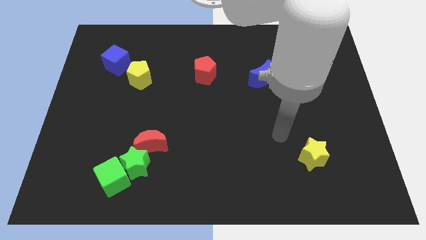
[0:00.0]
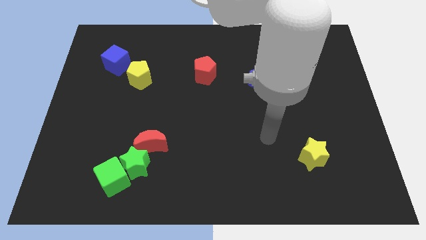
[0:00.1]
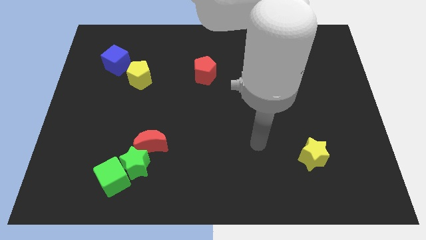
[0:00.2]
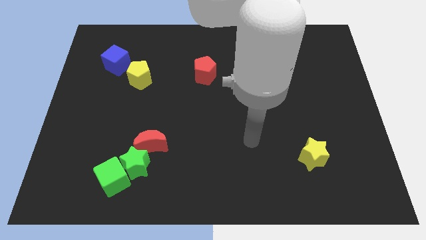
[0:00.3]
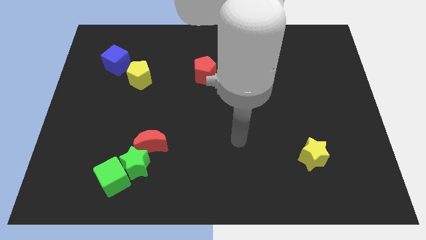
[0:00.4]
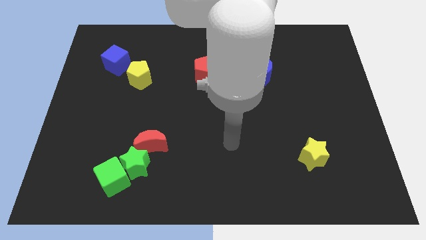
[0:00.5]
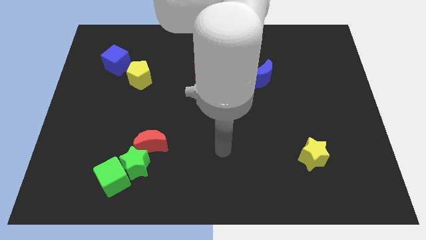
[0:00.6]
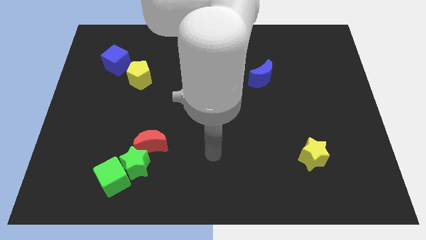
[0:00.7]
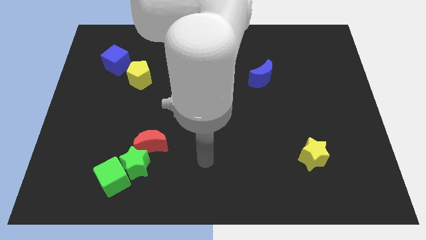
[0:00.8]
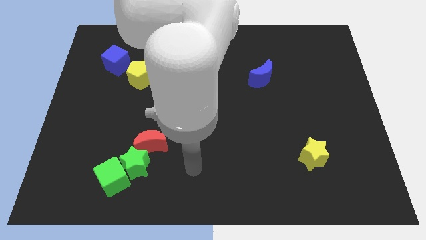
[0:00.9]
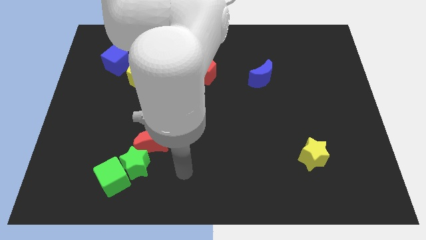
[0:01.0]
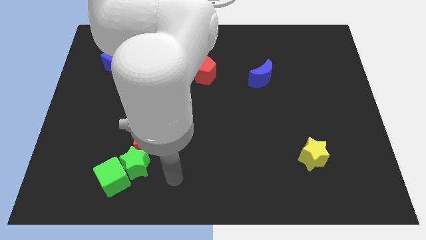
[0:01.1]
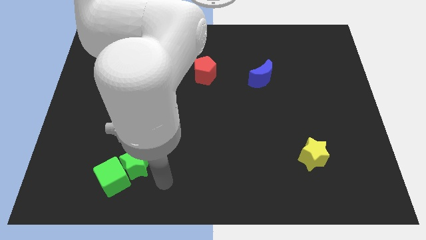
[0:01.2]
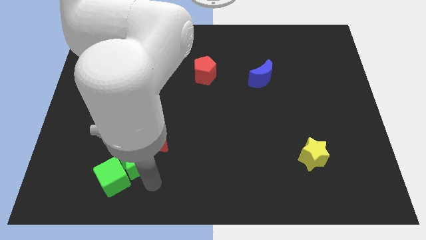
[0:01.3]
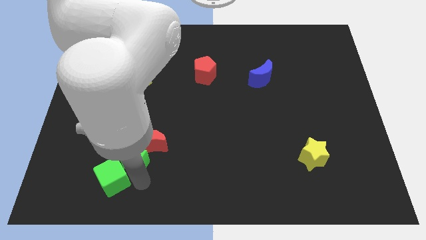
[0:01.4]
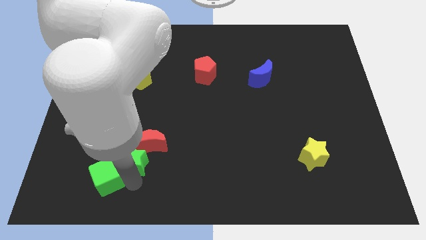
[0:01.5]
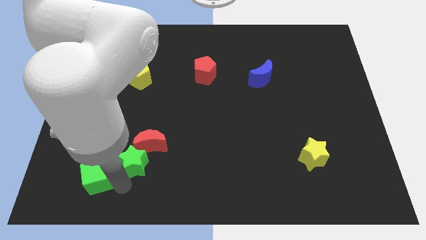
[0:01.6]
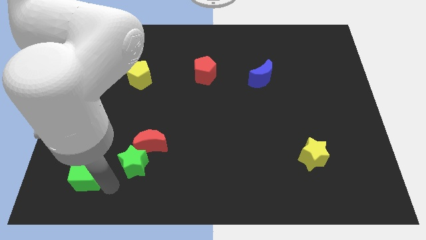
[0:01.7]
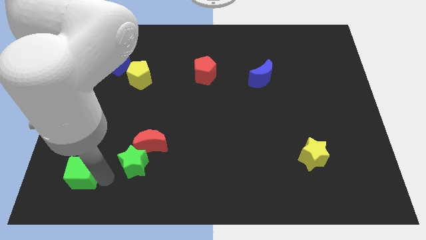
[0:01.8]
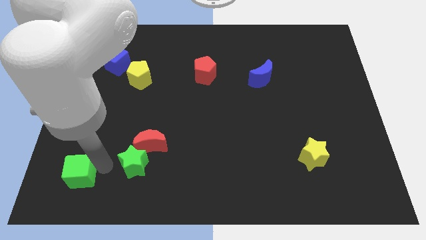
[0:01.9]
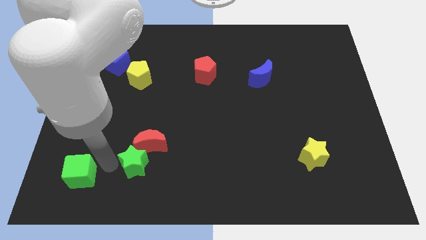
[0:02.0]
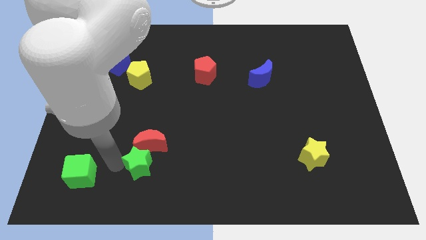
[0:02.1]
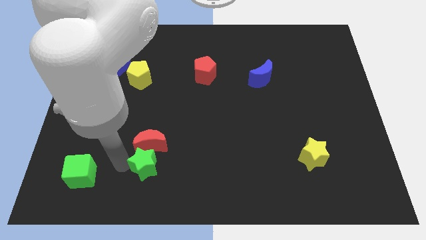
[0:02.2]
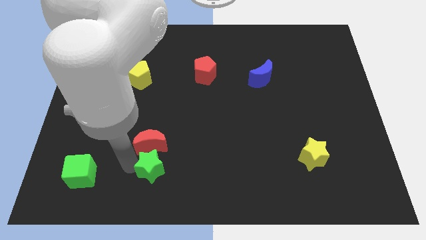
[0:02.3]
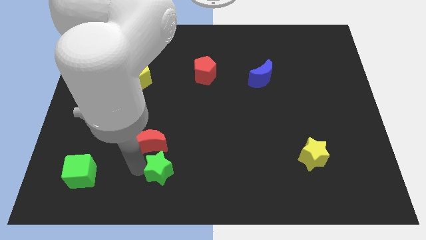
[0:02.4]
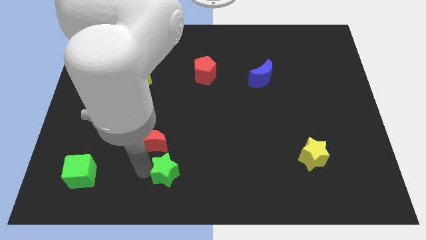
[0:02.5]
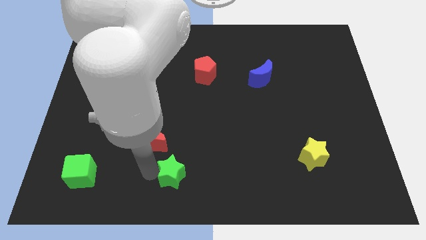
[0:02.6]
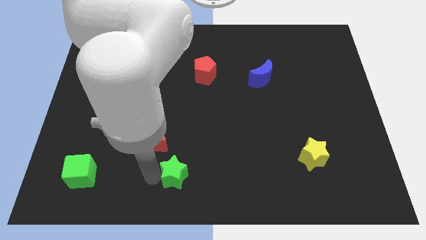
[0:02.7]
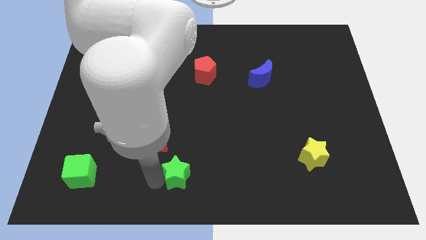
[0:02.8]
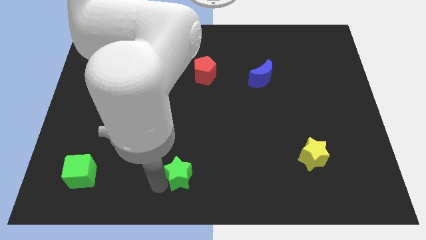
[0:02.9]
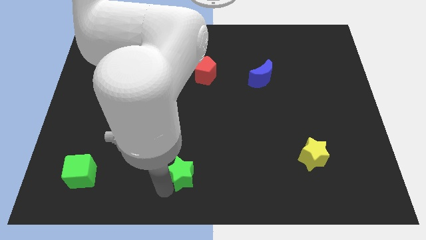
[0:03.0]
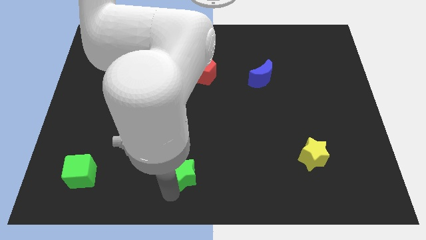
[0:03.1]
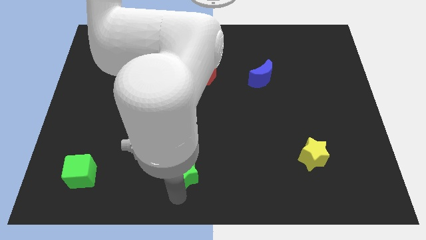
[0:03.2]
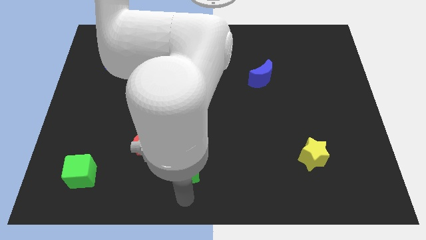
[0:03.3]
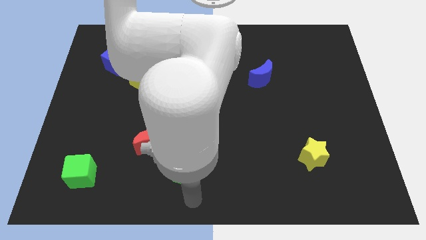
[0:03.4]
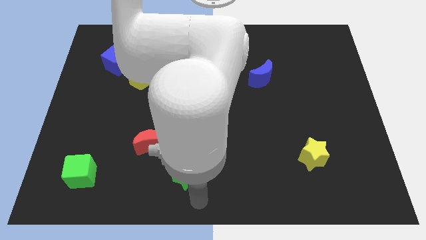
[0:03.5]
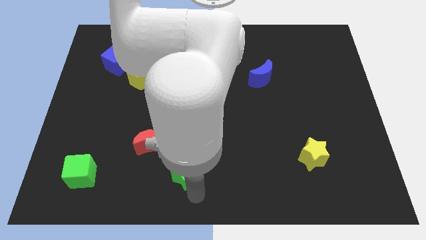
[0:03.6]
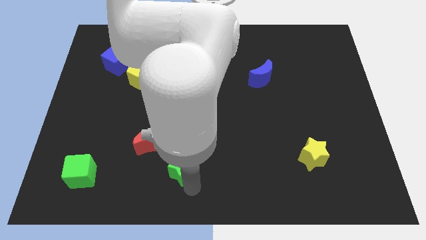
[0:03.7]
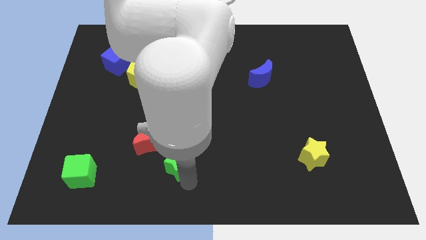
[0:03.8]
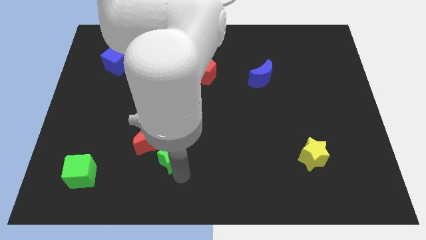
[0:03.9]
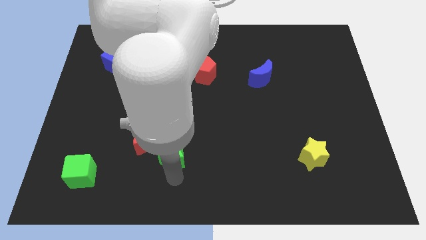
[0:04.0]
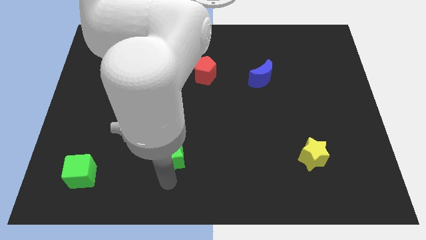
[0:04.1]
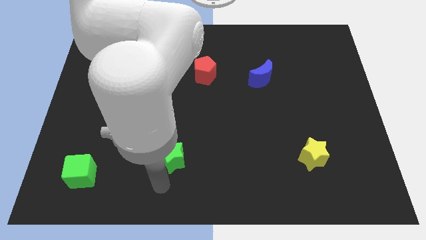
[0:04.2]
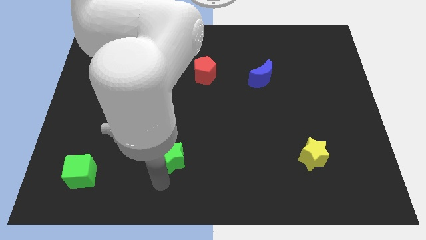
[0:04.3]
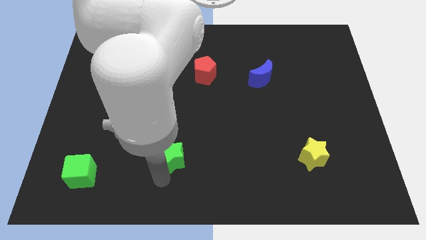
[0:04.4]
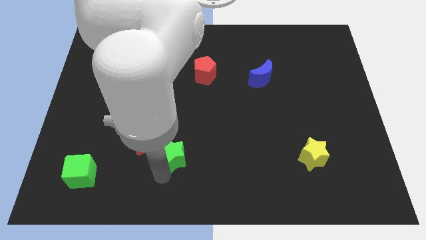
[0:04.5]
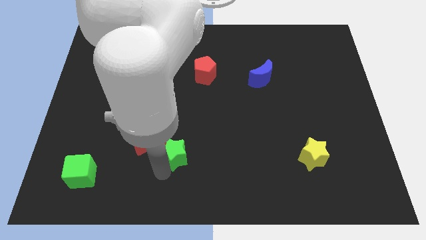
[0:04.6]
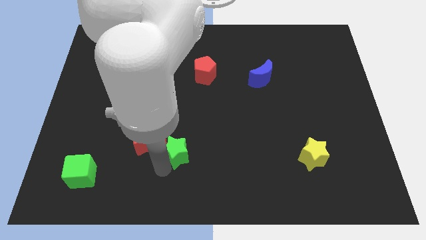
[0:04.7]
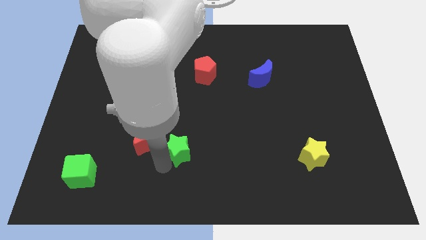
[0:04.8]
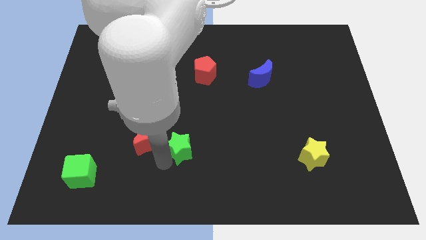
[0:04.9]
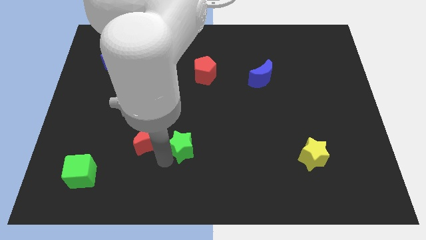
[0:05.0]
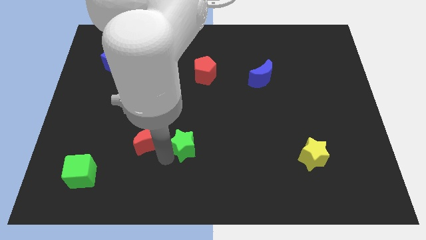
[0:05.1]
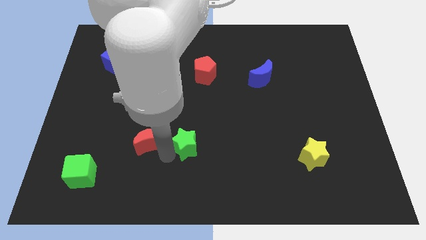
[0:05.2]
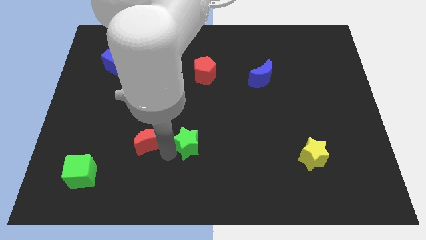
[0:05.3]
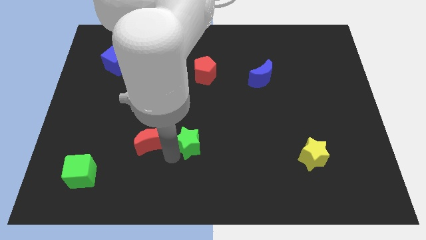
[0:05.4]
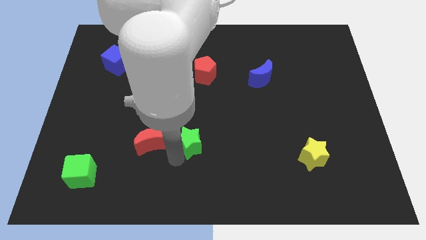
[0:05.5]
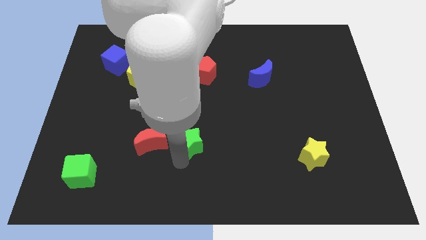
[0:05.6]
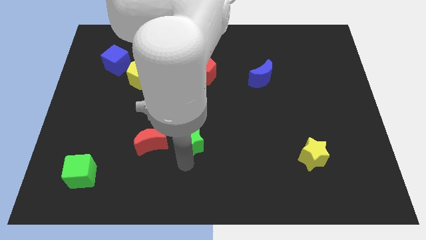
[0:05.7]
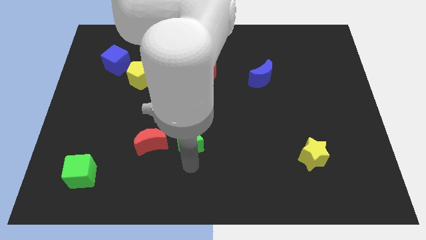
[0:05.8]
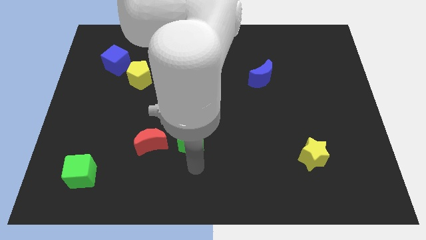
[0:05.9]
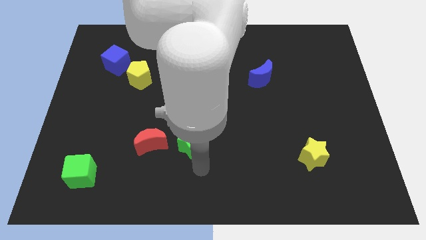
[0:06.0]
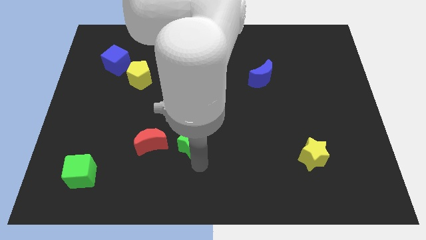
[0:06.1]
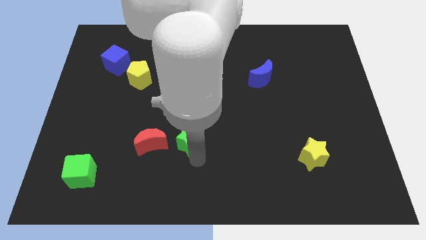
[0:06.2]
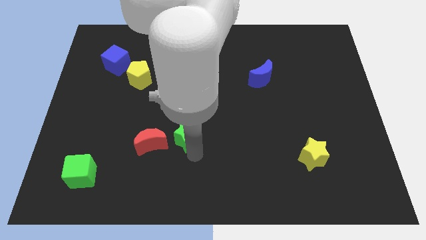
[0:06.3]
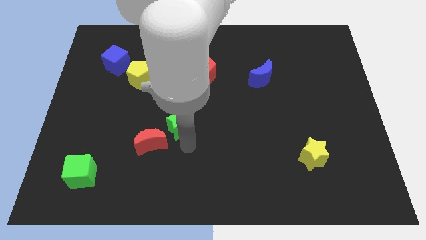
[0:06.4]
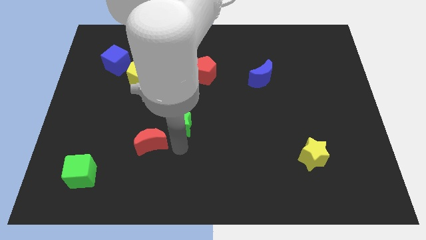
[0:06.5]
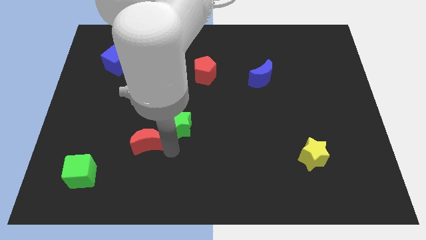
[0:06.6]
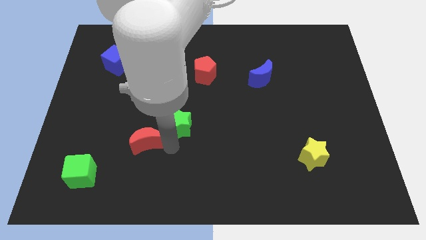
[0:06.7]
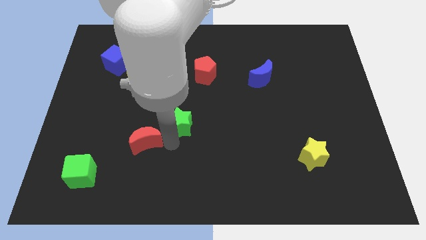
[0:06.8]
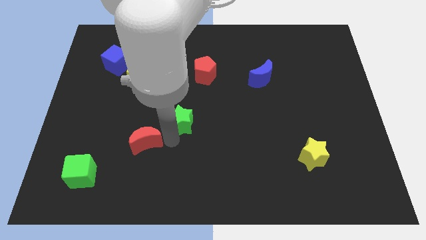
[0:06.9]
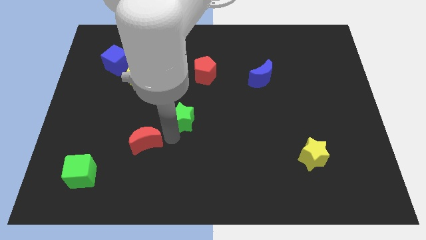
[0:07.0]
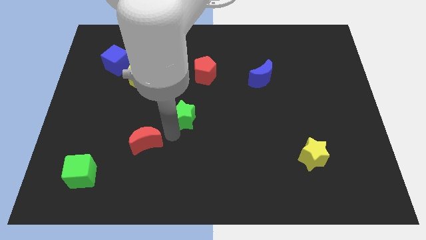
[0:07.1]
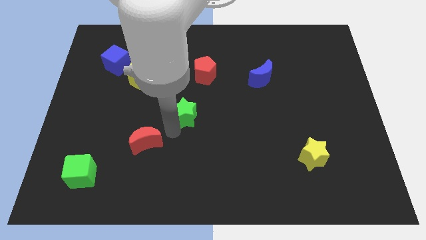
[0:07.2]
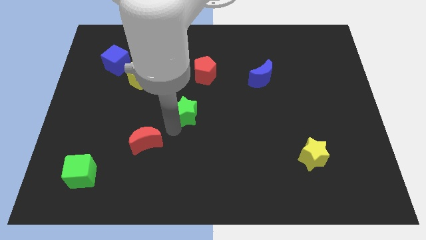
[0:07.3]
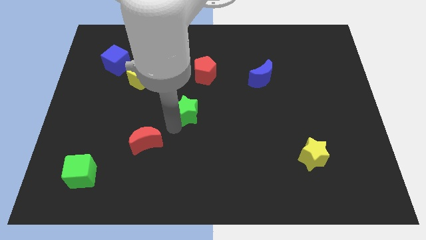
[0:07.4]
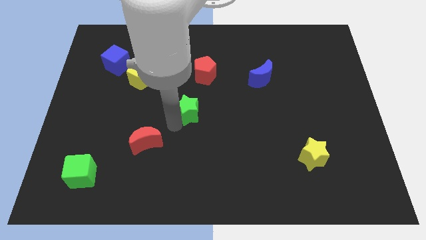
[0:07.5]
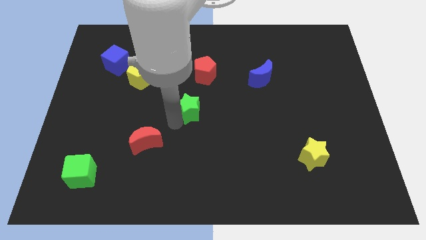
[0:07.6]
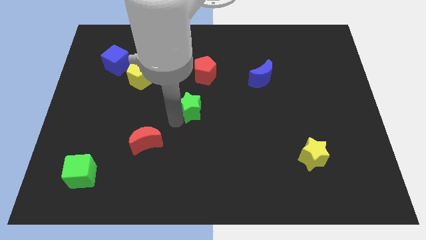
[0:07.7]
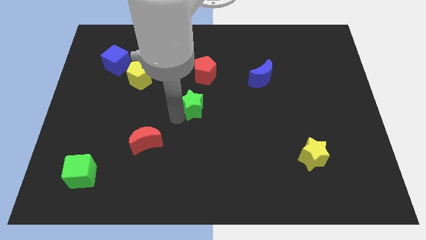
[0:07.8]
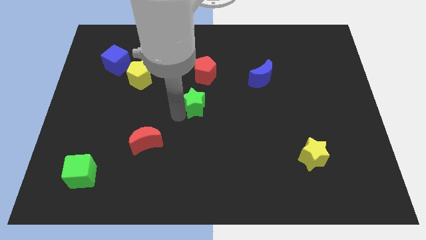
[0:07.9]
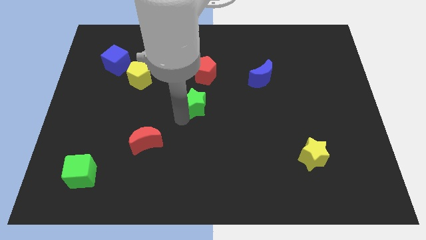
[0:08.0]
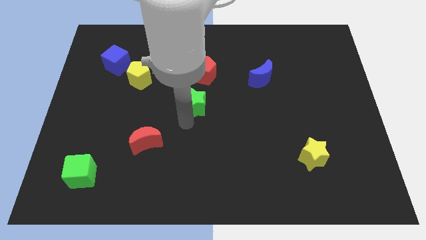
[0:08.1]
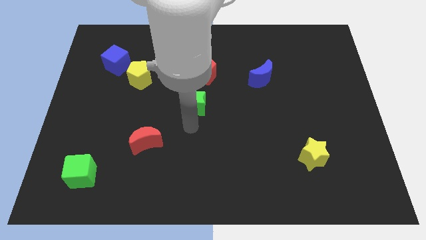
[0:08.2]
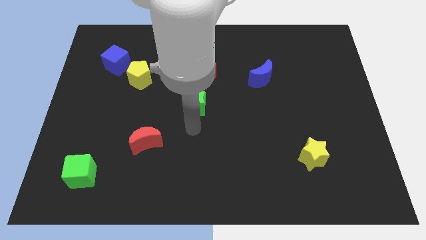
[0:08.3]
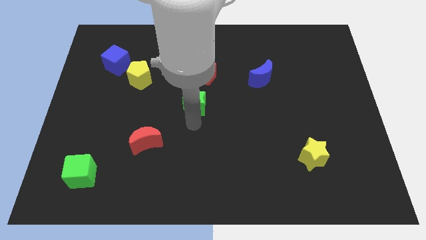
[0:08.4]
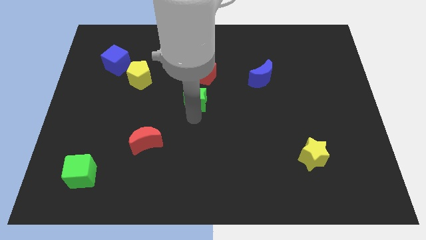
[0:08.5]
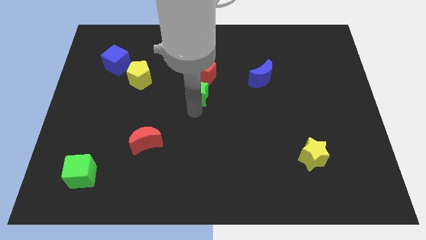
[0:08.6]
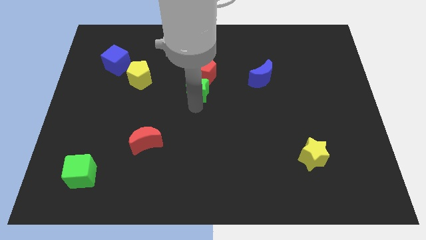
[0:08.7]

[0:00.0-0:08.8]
move the green star close to the red pentagon
